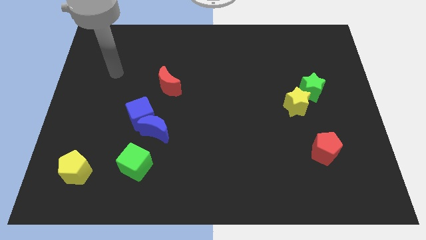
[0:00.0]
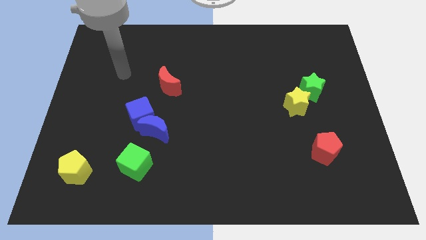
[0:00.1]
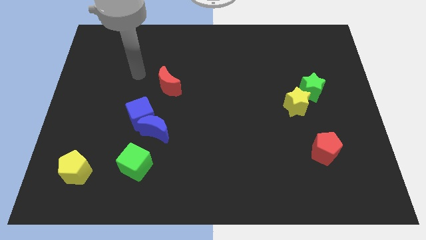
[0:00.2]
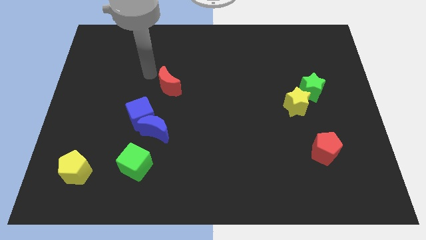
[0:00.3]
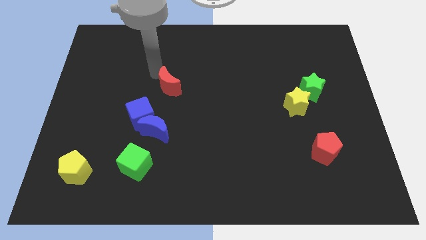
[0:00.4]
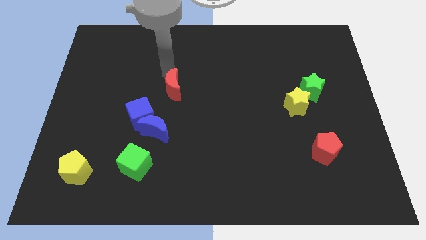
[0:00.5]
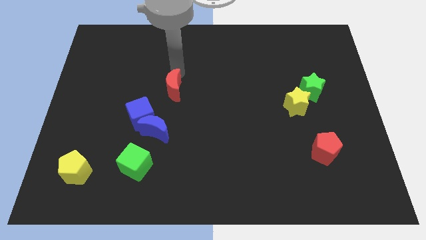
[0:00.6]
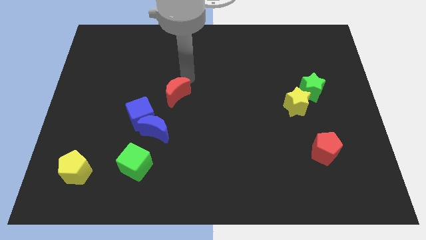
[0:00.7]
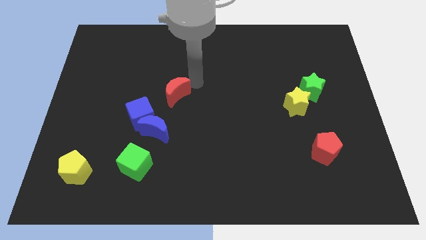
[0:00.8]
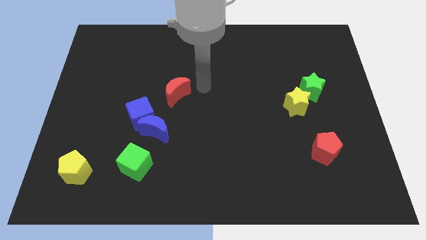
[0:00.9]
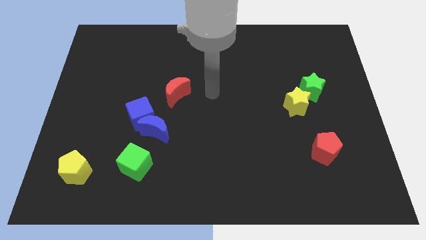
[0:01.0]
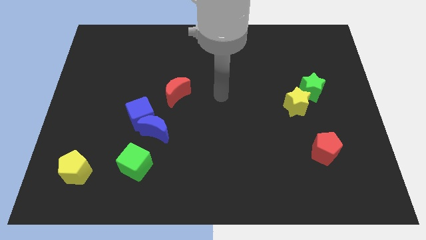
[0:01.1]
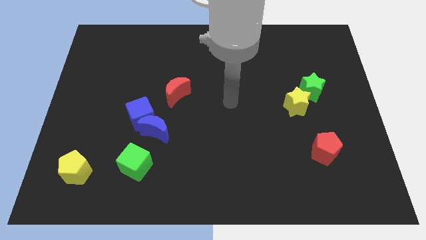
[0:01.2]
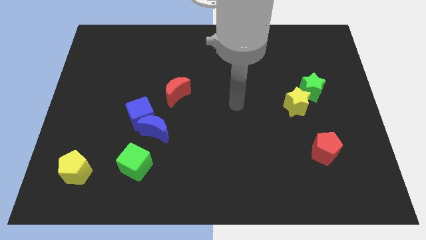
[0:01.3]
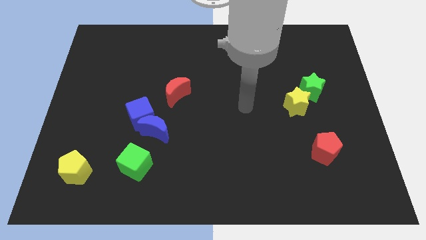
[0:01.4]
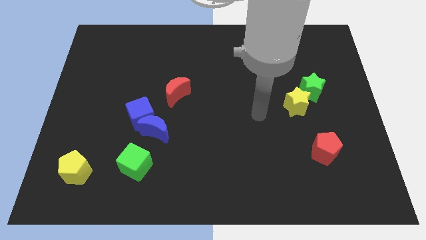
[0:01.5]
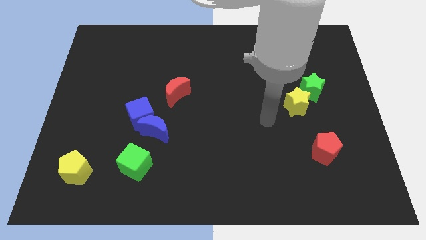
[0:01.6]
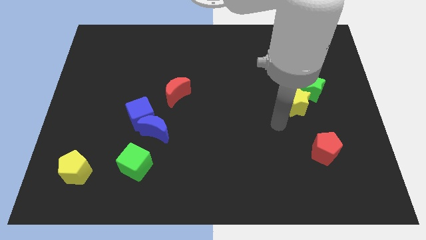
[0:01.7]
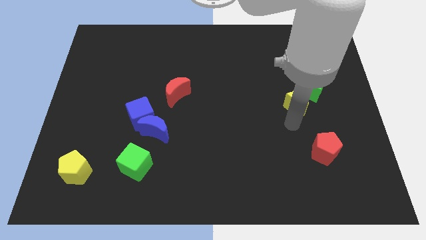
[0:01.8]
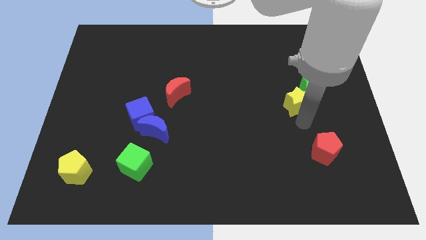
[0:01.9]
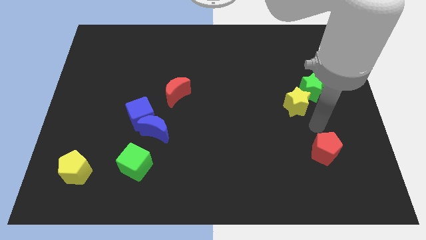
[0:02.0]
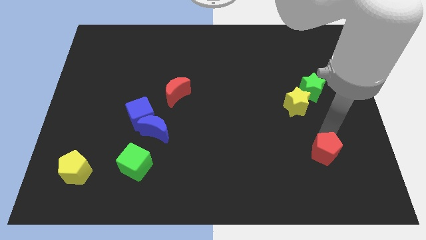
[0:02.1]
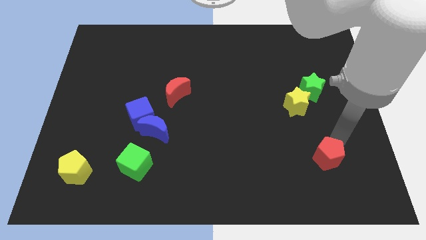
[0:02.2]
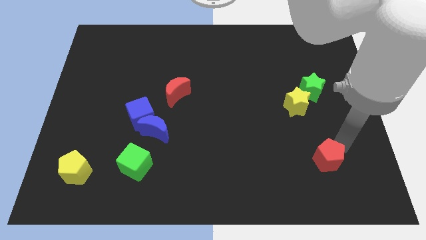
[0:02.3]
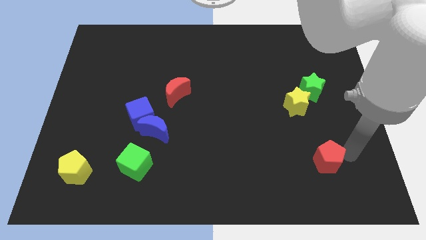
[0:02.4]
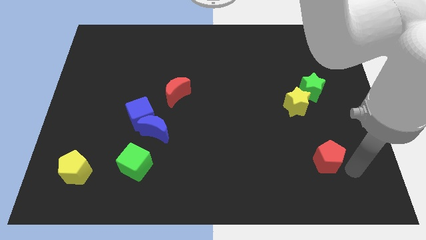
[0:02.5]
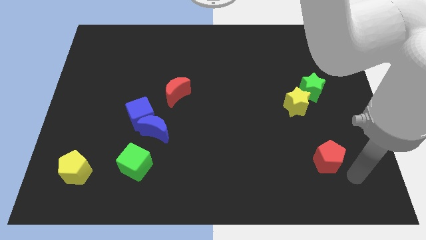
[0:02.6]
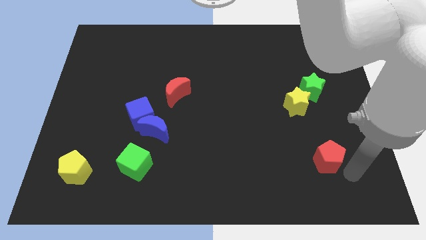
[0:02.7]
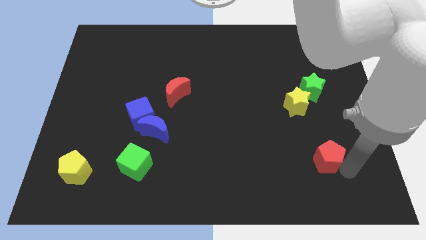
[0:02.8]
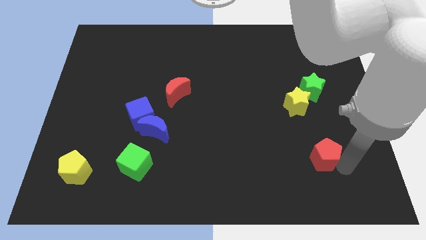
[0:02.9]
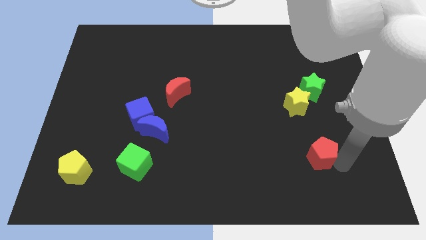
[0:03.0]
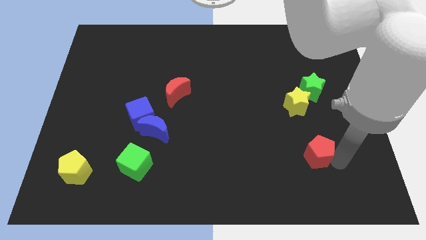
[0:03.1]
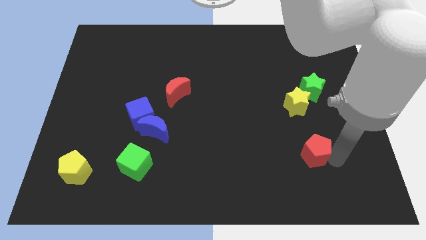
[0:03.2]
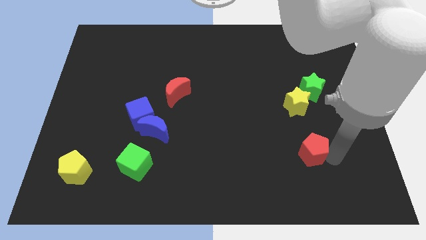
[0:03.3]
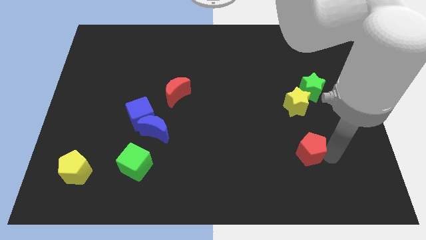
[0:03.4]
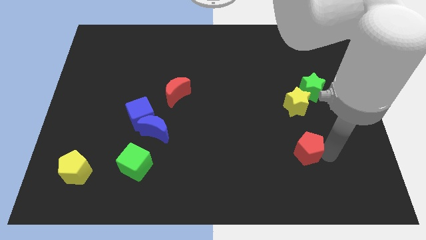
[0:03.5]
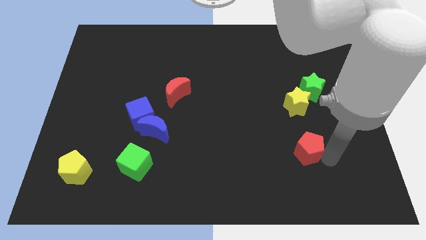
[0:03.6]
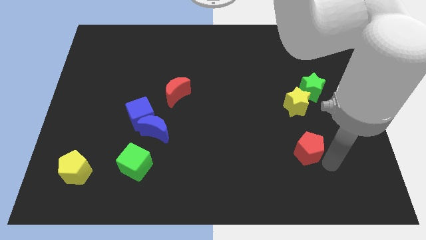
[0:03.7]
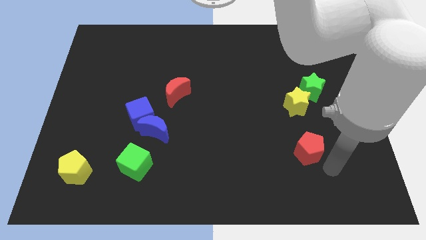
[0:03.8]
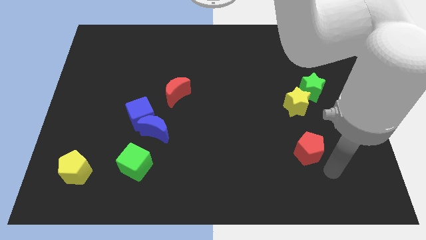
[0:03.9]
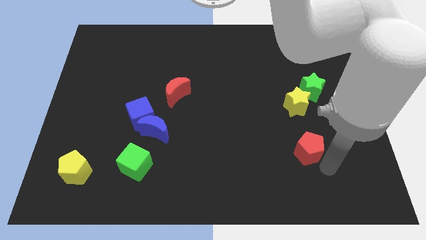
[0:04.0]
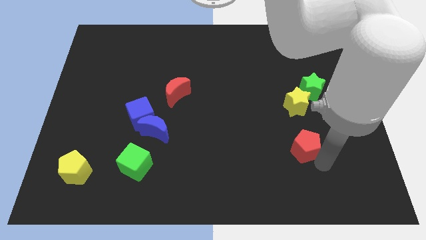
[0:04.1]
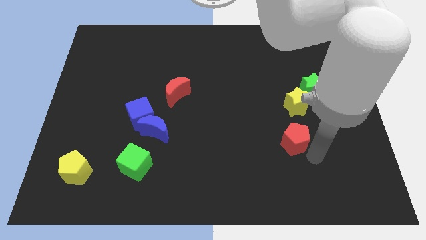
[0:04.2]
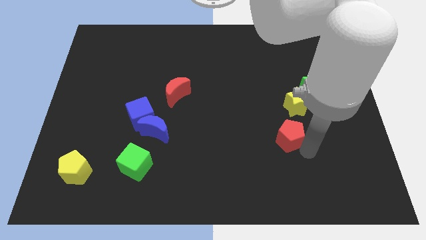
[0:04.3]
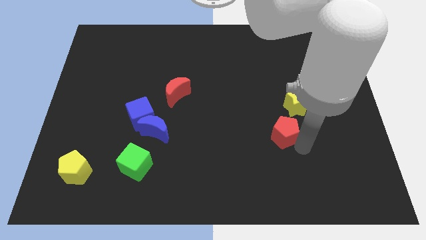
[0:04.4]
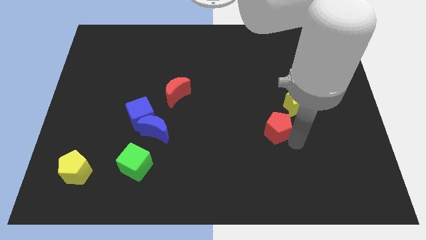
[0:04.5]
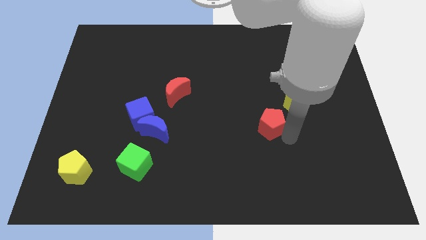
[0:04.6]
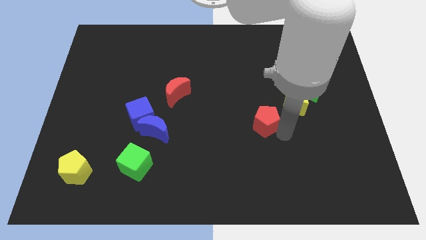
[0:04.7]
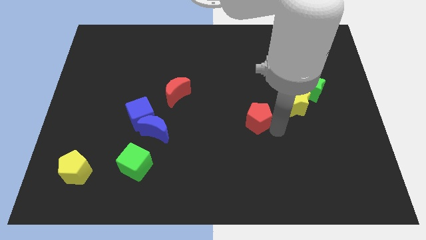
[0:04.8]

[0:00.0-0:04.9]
put the red pentagon to the center of the board
